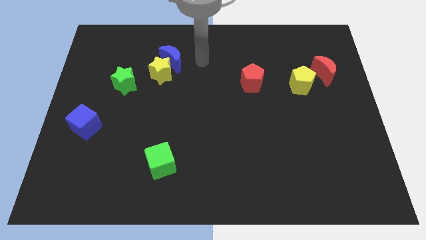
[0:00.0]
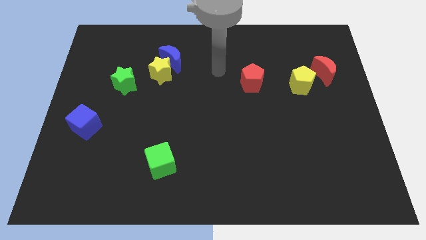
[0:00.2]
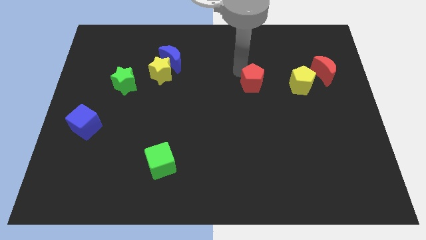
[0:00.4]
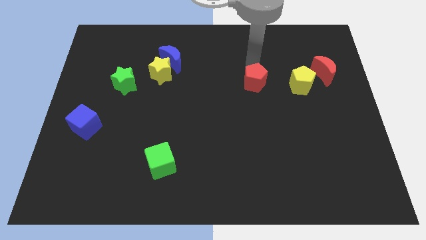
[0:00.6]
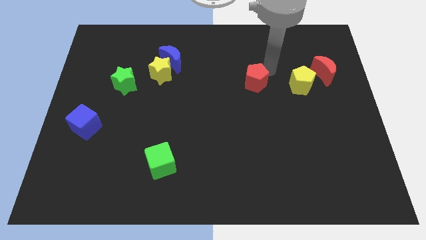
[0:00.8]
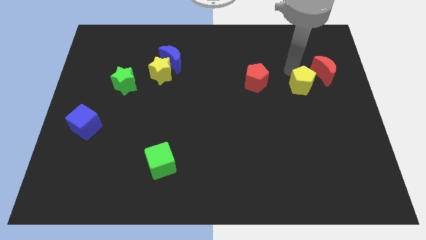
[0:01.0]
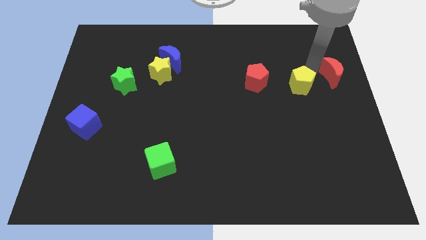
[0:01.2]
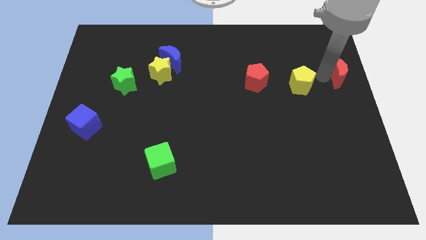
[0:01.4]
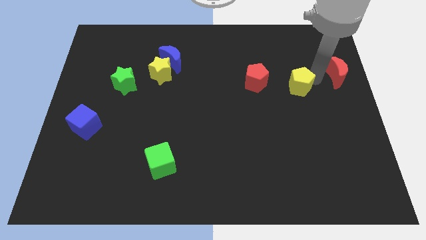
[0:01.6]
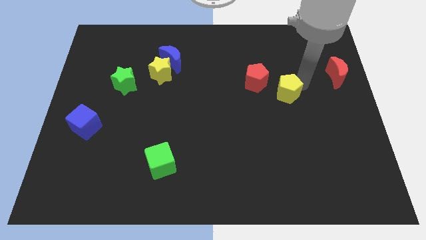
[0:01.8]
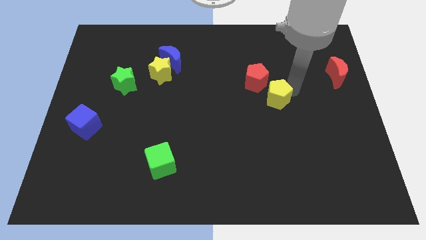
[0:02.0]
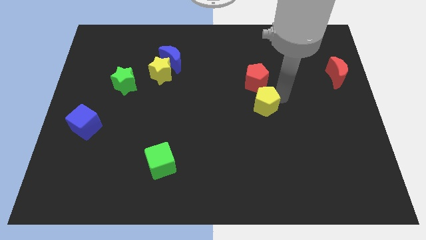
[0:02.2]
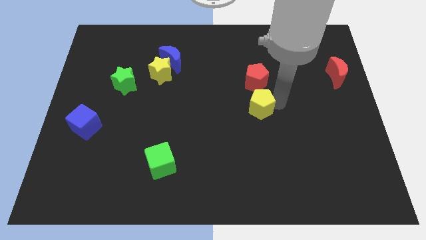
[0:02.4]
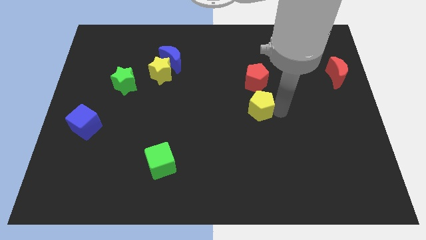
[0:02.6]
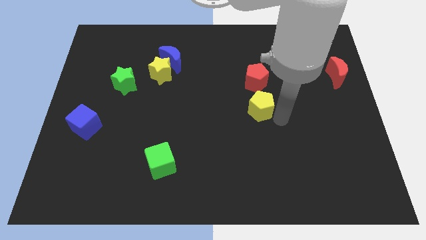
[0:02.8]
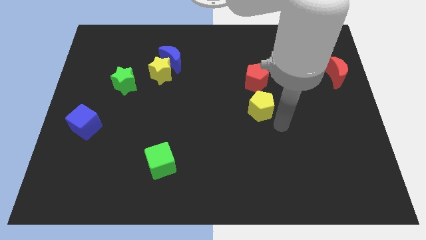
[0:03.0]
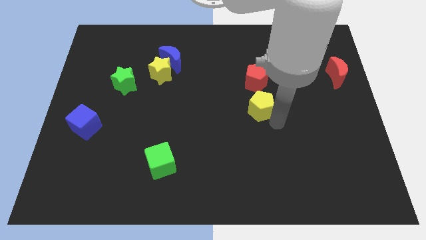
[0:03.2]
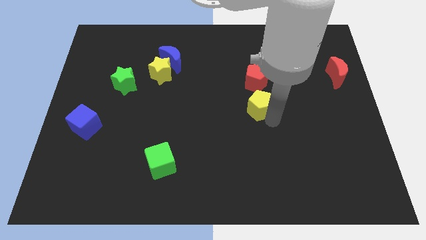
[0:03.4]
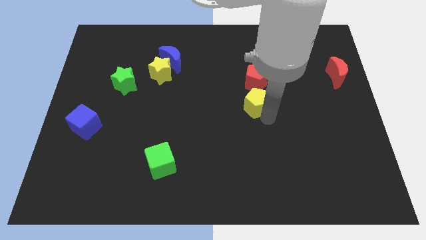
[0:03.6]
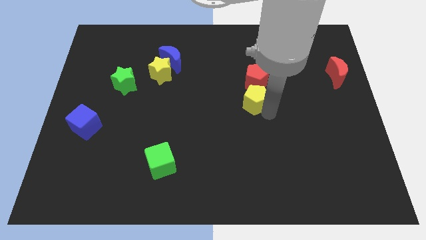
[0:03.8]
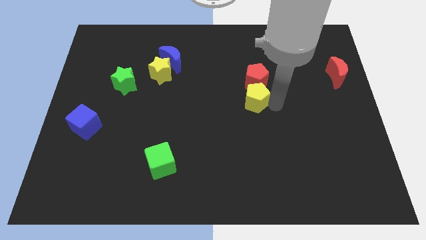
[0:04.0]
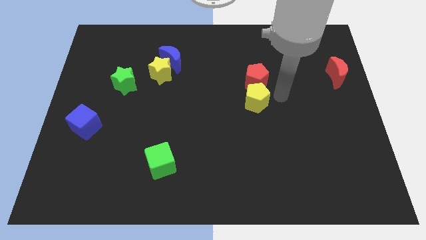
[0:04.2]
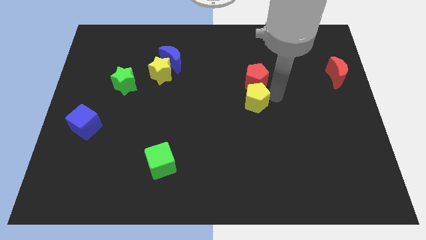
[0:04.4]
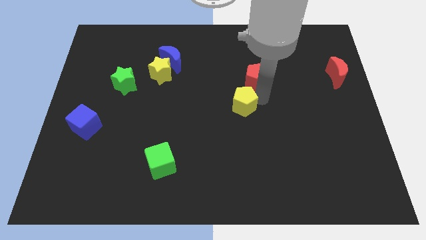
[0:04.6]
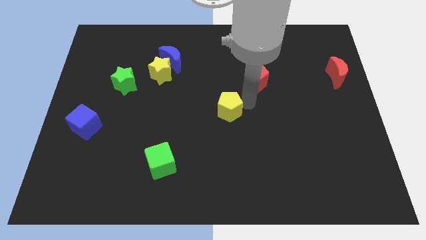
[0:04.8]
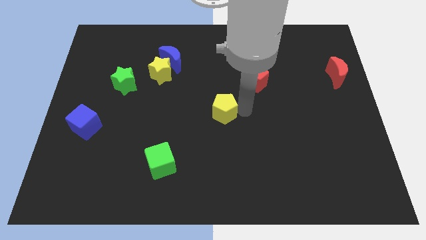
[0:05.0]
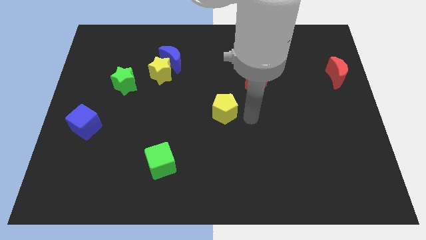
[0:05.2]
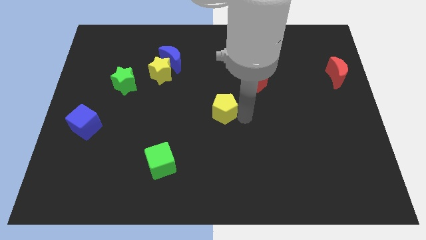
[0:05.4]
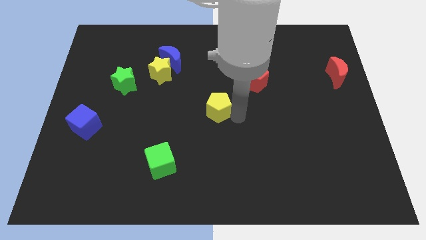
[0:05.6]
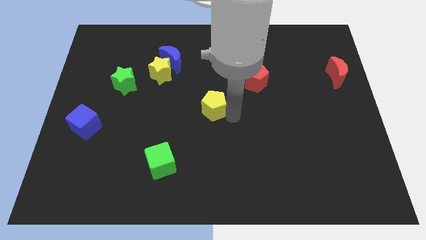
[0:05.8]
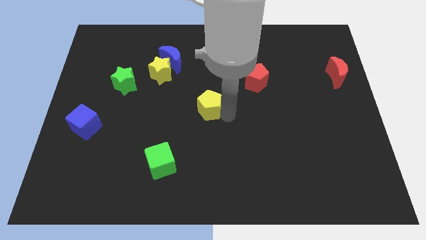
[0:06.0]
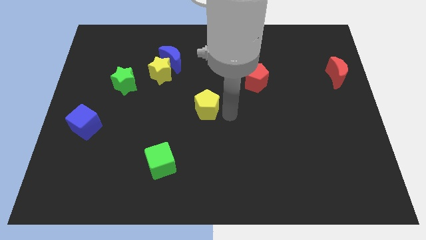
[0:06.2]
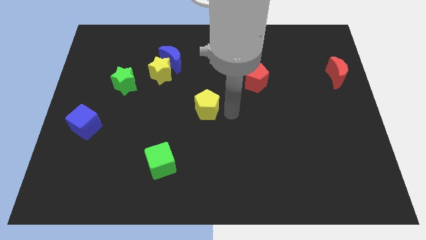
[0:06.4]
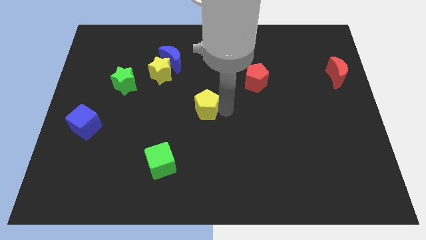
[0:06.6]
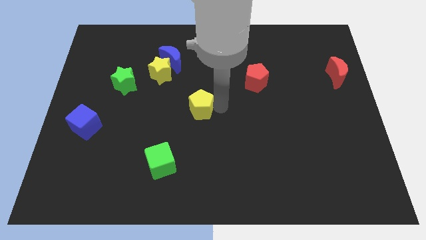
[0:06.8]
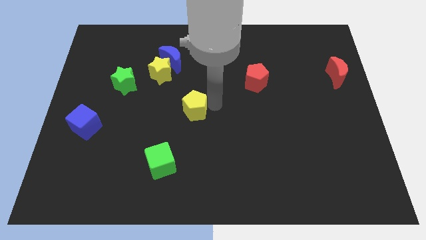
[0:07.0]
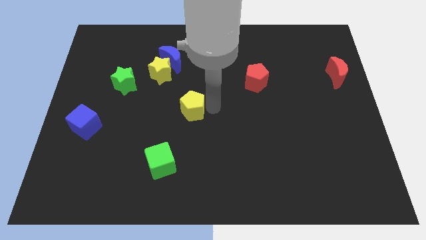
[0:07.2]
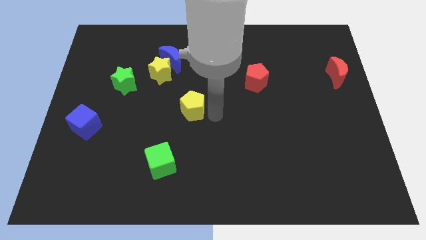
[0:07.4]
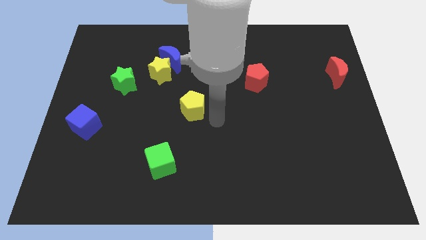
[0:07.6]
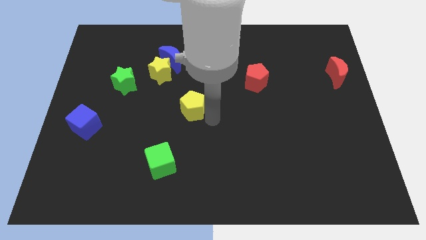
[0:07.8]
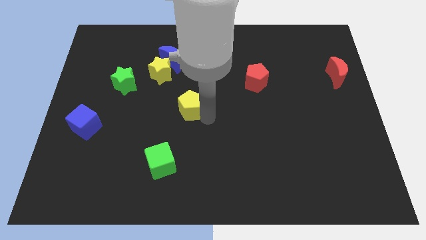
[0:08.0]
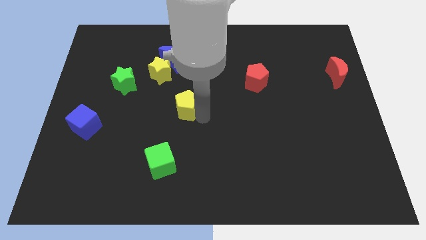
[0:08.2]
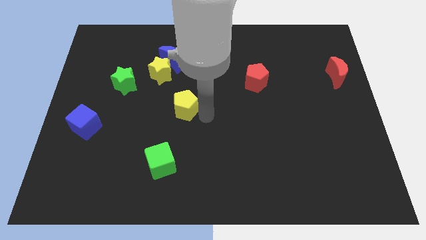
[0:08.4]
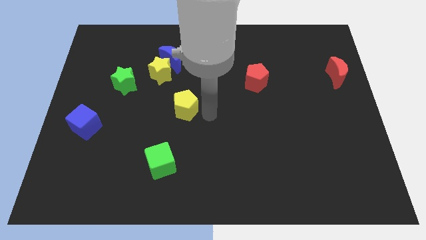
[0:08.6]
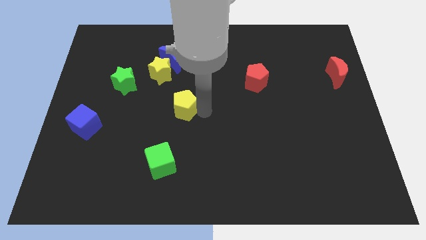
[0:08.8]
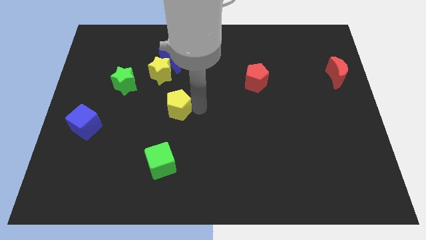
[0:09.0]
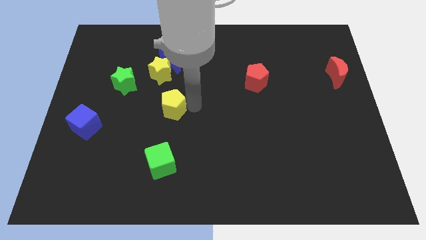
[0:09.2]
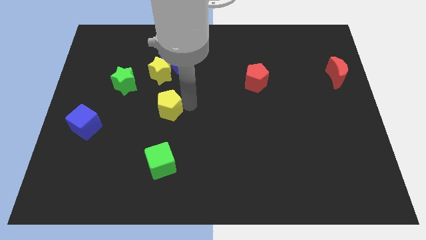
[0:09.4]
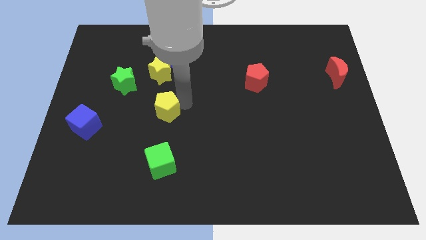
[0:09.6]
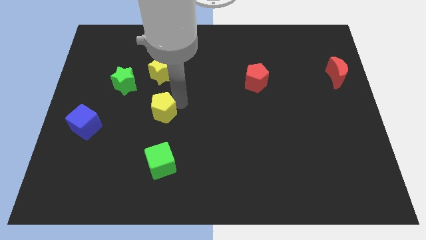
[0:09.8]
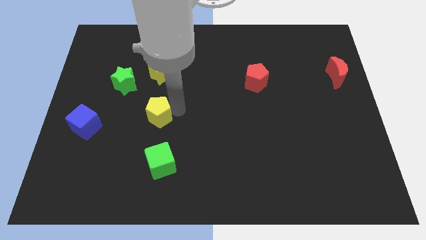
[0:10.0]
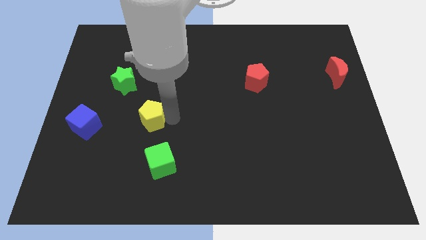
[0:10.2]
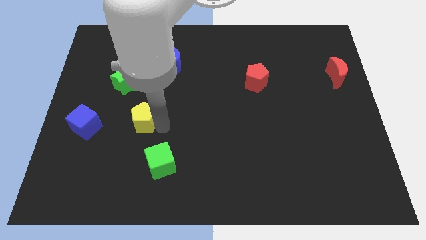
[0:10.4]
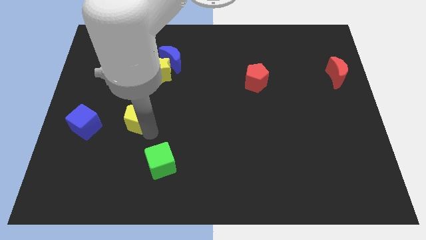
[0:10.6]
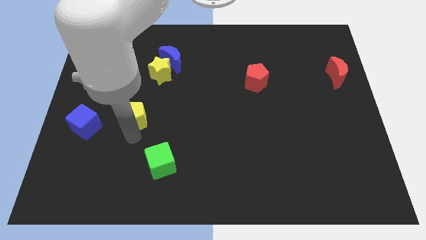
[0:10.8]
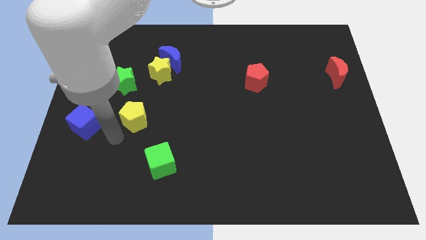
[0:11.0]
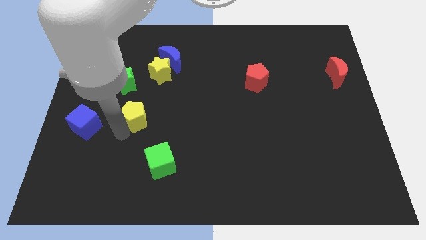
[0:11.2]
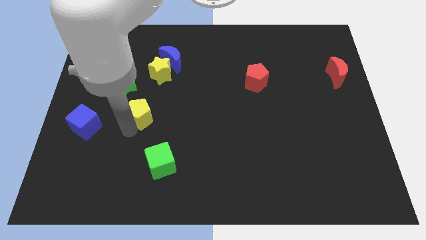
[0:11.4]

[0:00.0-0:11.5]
slide the yellow pentagon to the bottom right side of the green star

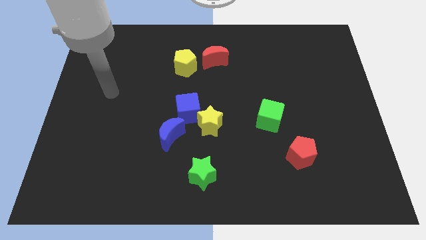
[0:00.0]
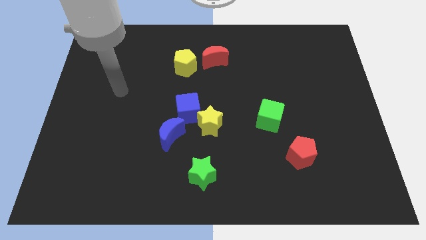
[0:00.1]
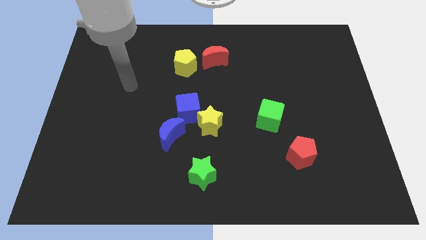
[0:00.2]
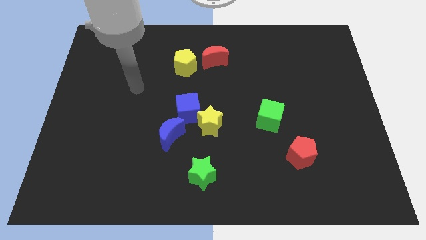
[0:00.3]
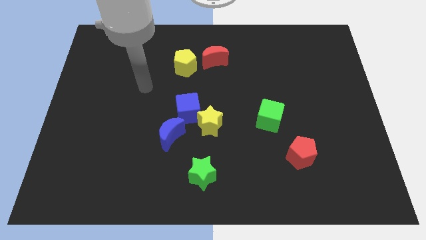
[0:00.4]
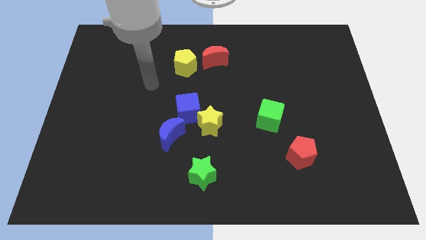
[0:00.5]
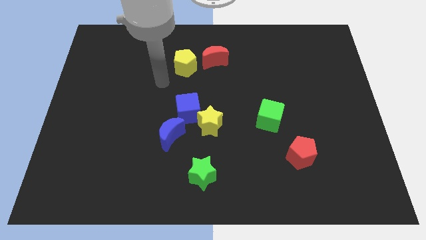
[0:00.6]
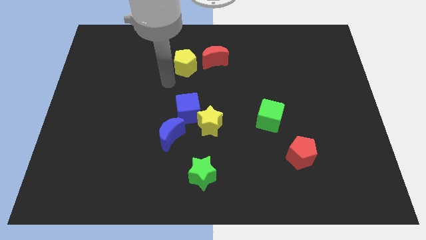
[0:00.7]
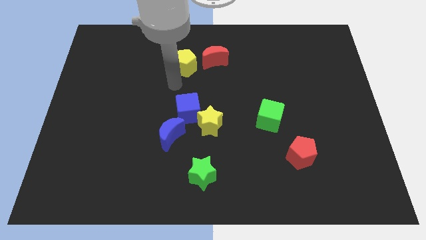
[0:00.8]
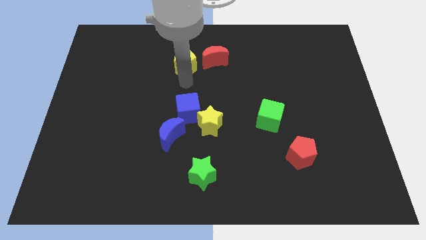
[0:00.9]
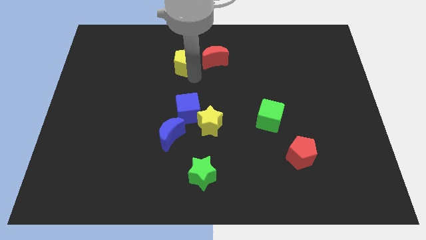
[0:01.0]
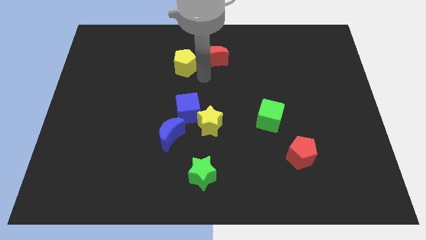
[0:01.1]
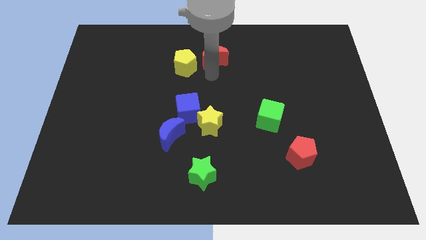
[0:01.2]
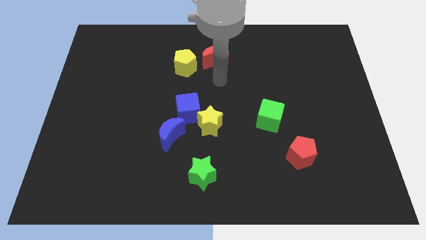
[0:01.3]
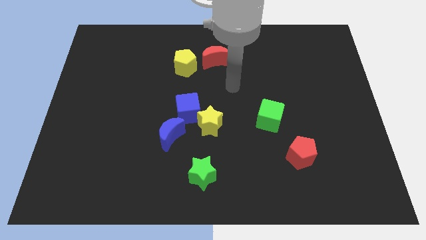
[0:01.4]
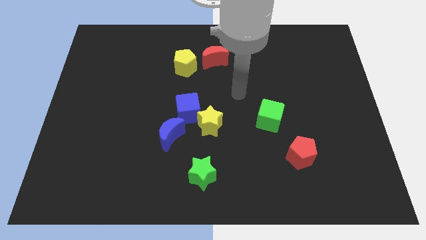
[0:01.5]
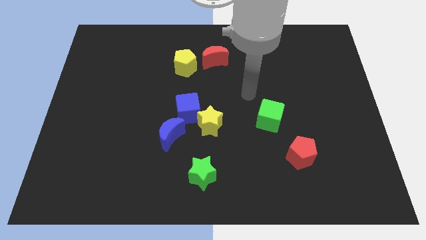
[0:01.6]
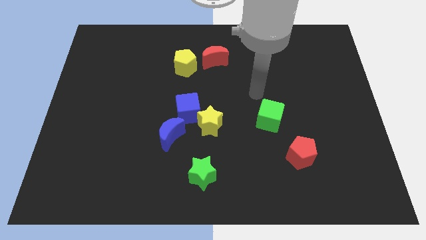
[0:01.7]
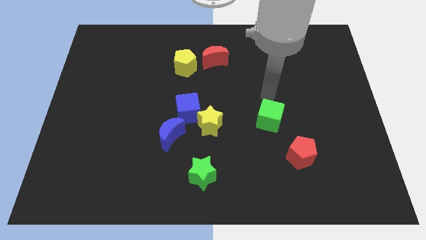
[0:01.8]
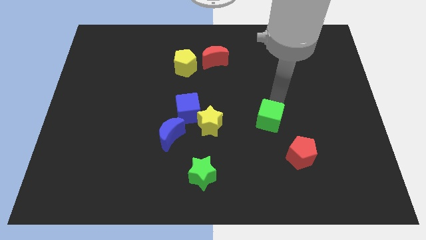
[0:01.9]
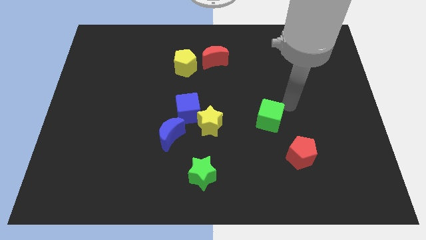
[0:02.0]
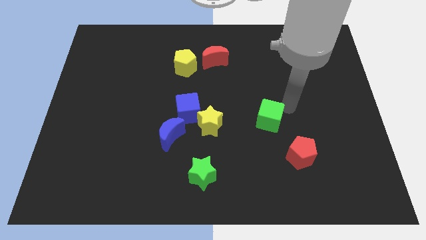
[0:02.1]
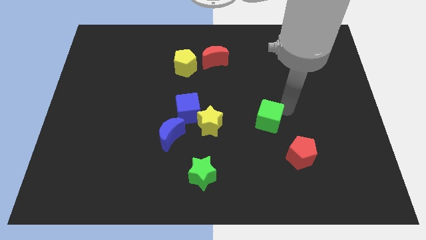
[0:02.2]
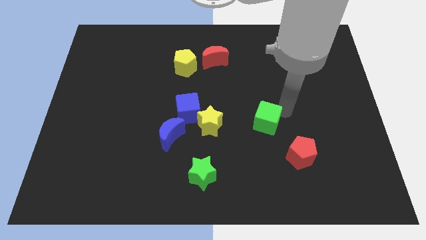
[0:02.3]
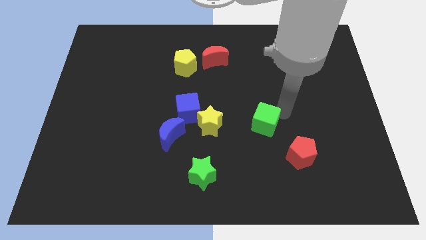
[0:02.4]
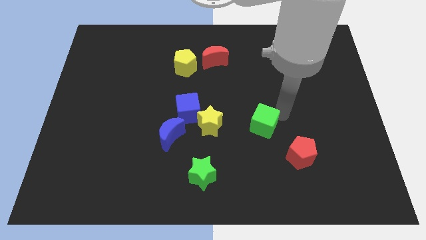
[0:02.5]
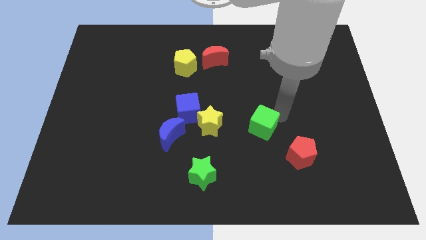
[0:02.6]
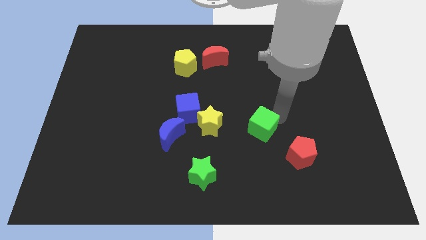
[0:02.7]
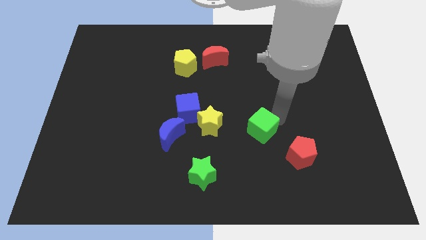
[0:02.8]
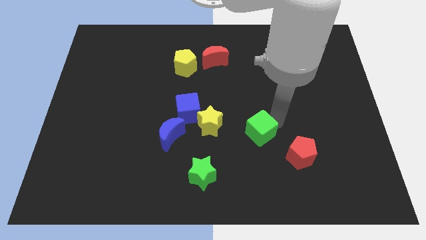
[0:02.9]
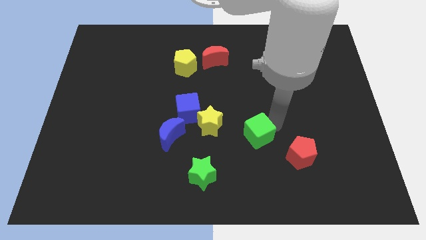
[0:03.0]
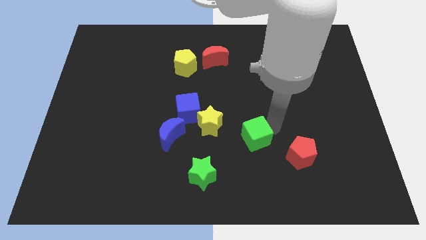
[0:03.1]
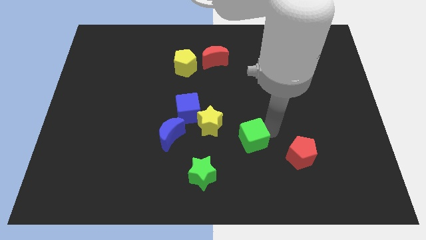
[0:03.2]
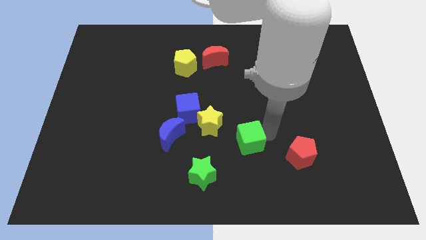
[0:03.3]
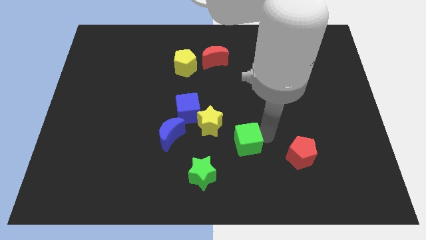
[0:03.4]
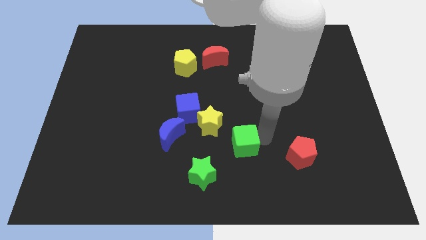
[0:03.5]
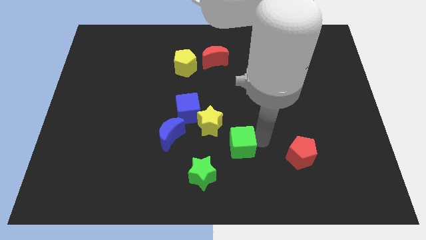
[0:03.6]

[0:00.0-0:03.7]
put the green cube just right of the blue moon
